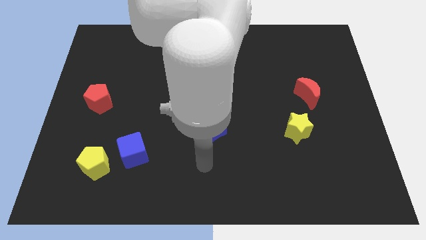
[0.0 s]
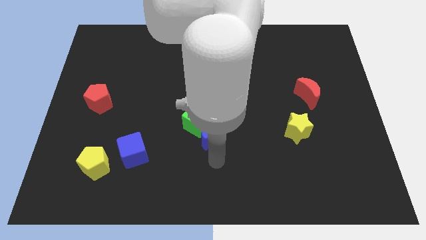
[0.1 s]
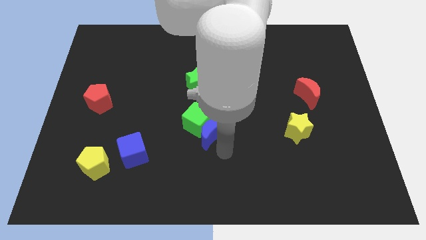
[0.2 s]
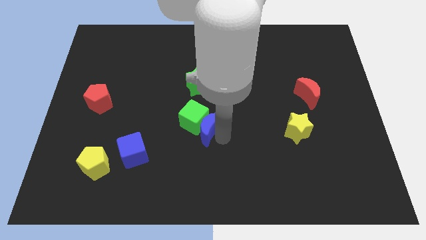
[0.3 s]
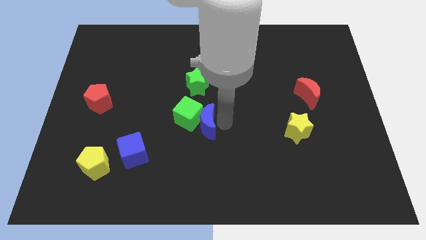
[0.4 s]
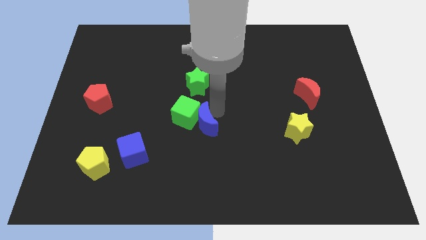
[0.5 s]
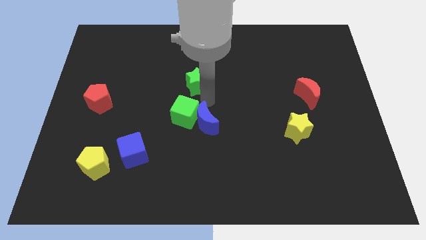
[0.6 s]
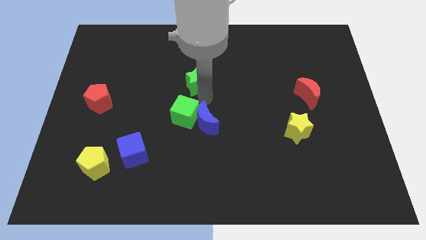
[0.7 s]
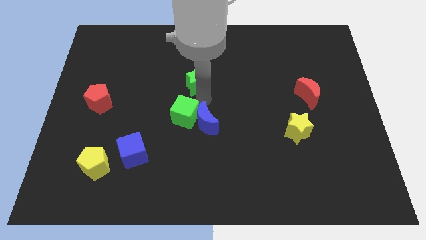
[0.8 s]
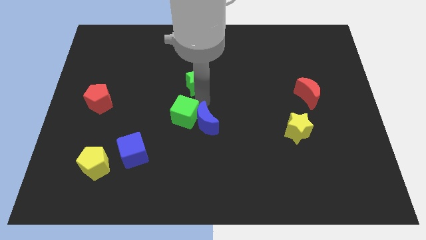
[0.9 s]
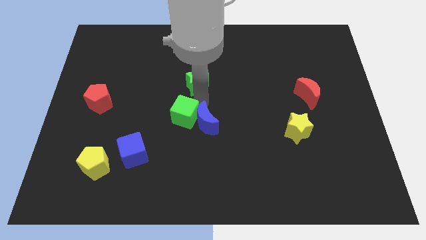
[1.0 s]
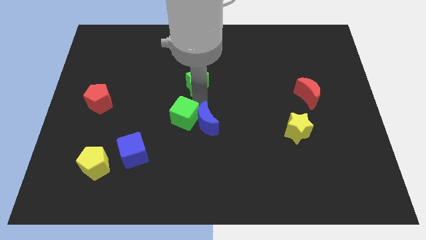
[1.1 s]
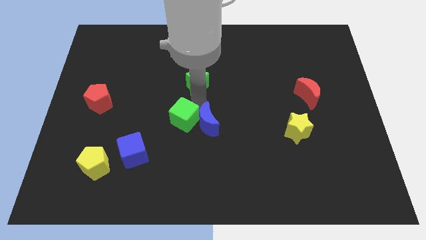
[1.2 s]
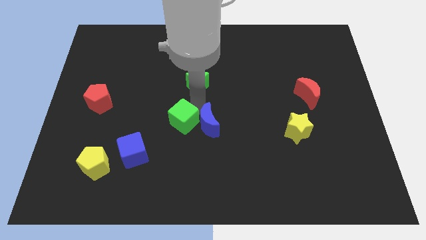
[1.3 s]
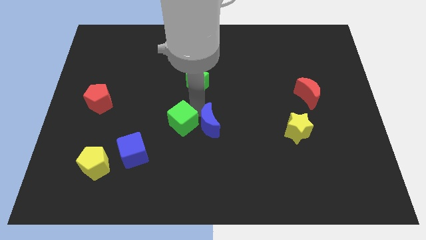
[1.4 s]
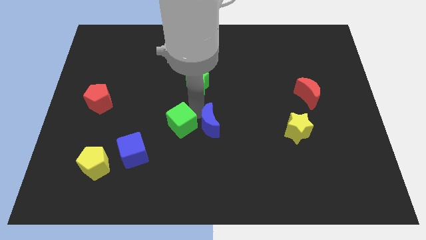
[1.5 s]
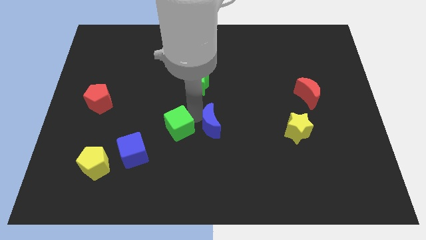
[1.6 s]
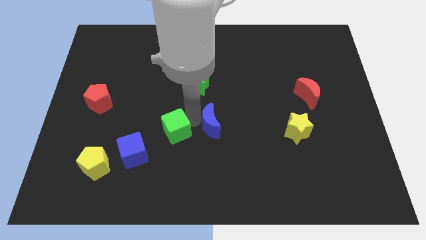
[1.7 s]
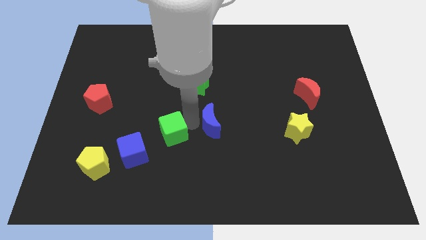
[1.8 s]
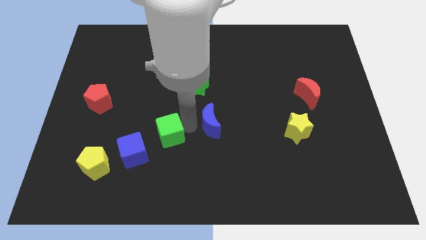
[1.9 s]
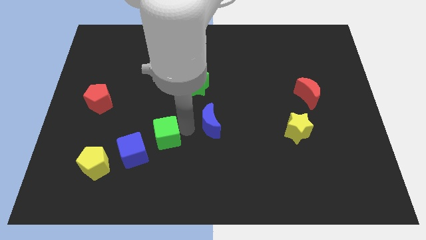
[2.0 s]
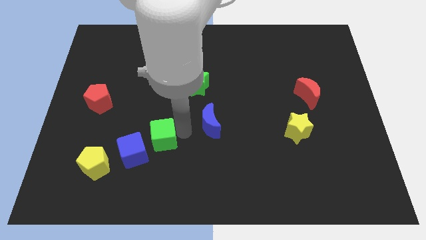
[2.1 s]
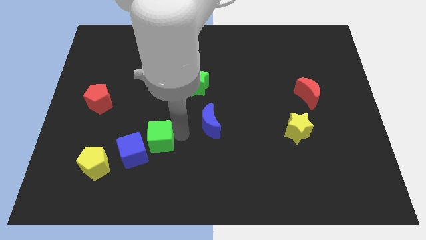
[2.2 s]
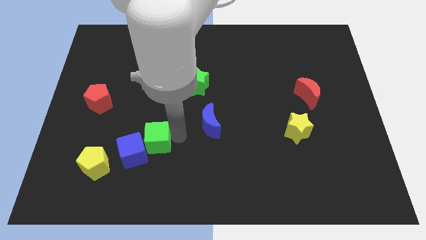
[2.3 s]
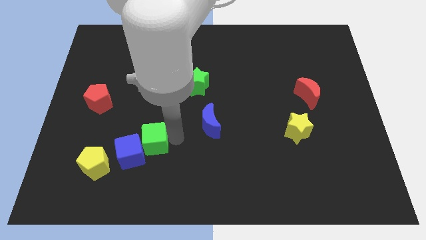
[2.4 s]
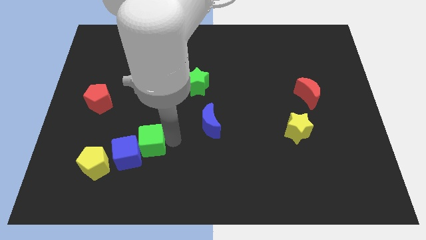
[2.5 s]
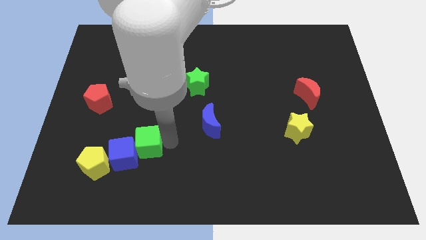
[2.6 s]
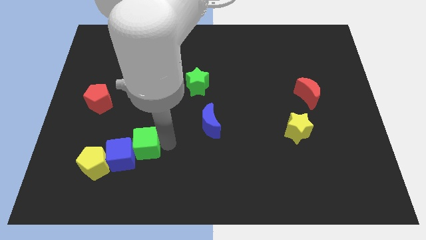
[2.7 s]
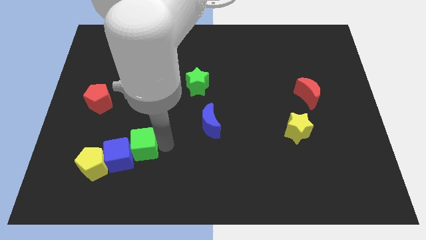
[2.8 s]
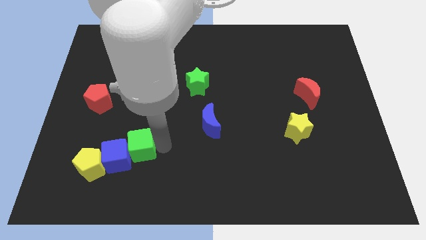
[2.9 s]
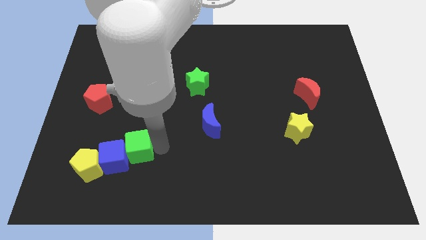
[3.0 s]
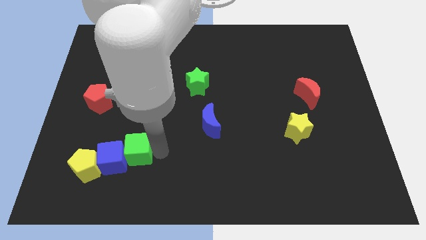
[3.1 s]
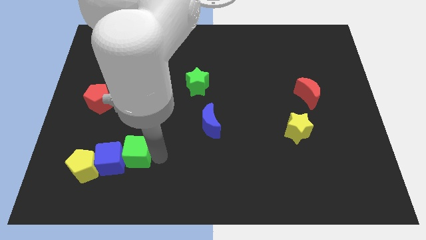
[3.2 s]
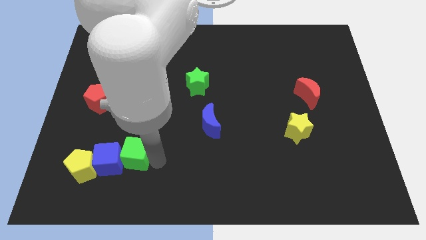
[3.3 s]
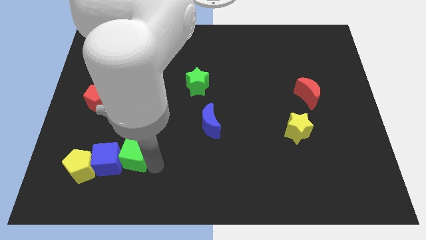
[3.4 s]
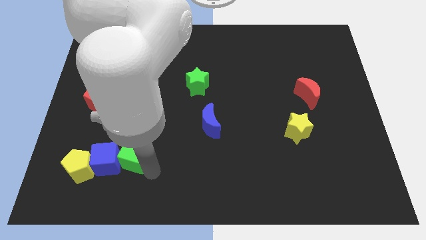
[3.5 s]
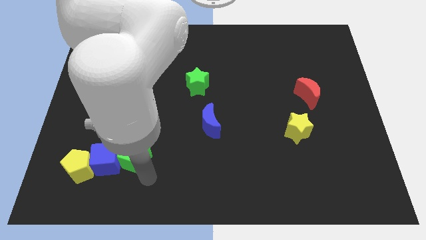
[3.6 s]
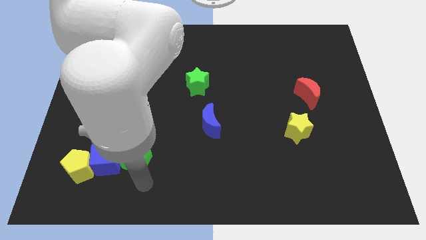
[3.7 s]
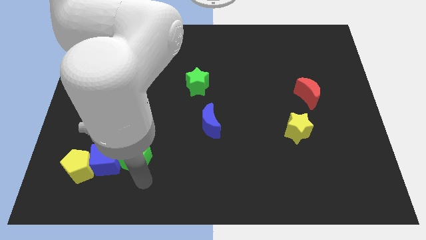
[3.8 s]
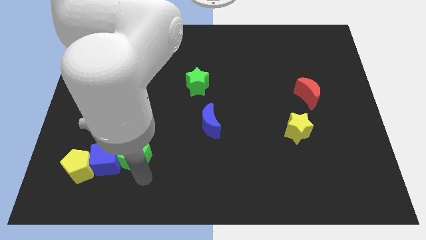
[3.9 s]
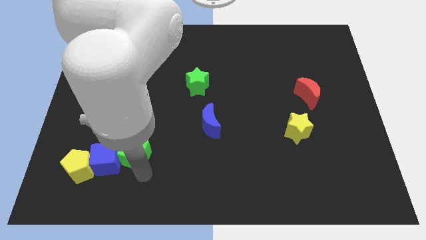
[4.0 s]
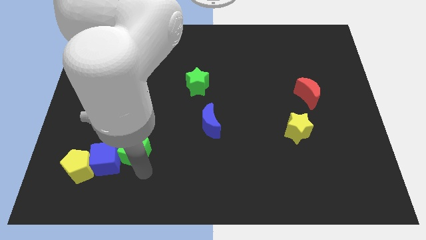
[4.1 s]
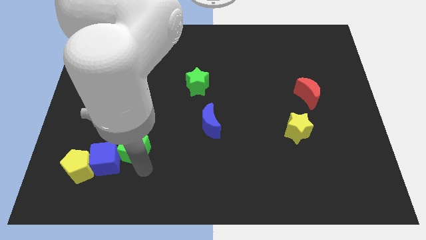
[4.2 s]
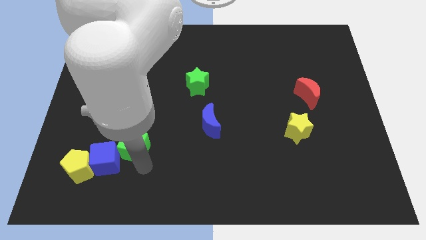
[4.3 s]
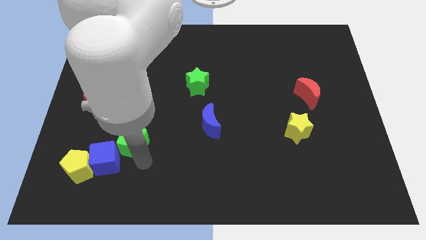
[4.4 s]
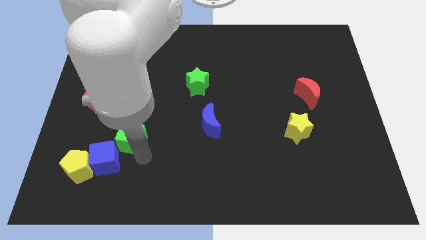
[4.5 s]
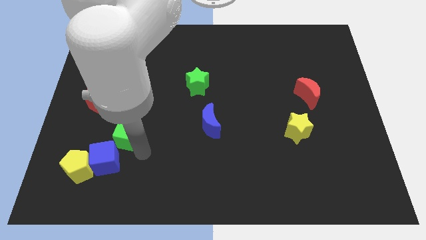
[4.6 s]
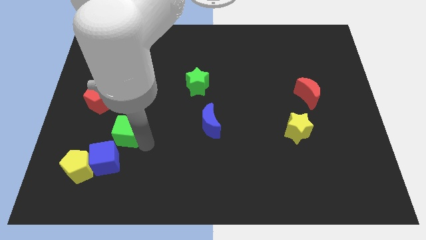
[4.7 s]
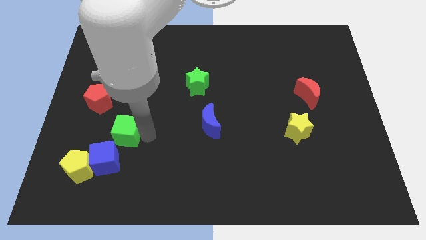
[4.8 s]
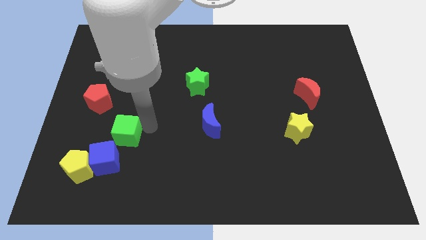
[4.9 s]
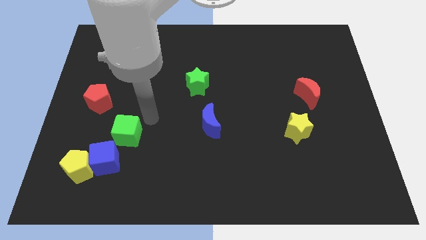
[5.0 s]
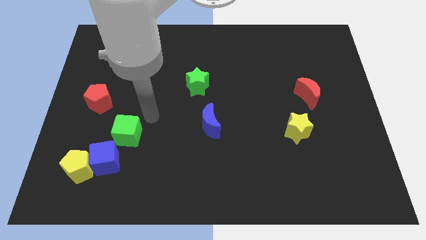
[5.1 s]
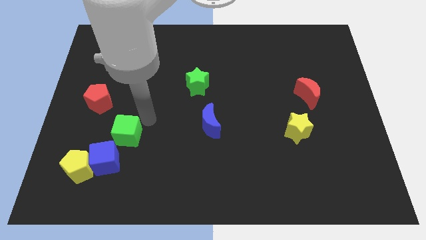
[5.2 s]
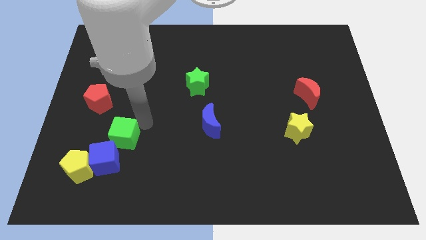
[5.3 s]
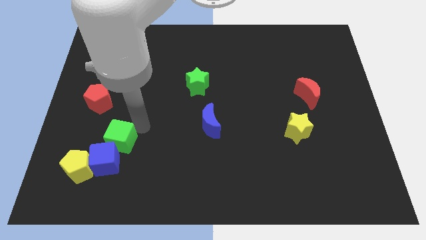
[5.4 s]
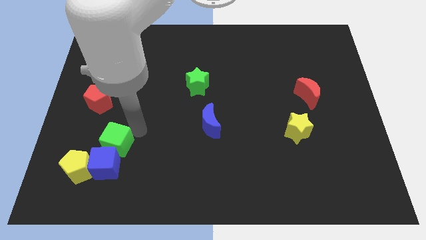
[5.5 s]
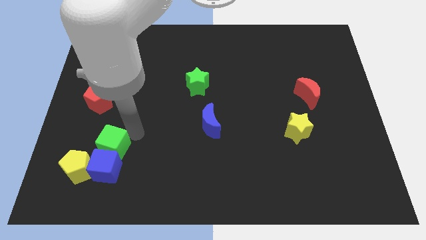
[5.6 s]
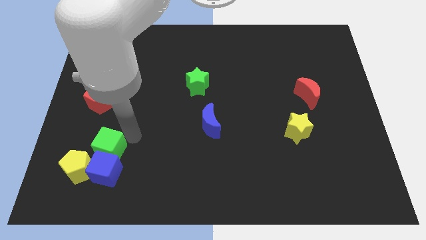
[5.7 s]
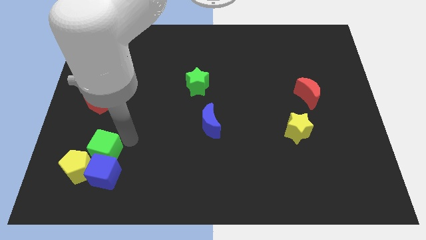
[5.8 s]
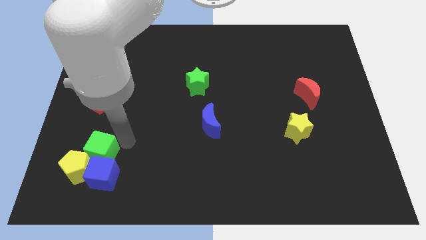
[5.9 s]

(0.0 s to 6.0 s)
put the green cube towards the yellow pentagon
